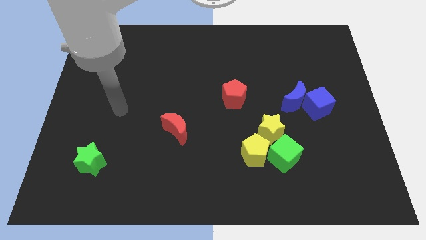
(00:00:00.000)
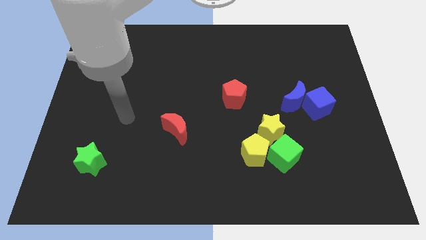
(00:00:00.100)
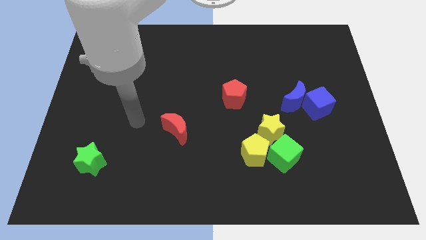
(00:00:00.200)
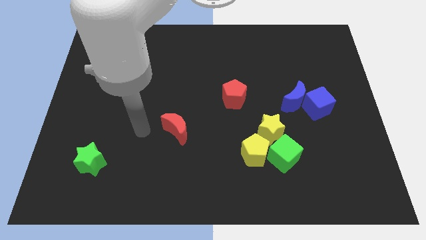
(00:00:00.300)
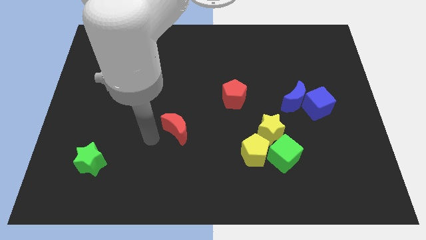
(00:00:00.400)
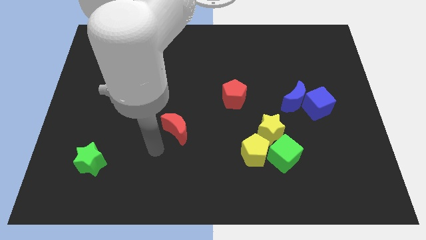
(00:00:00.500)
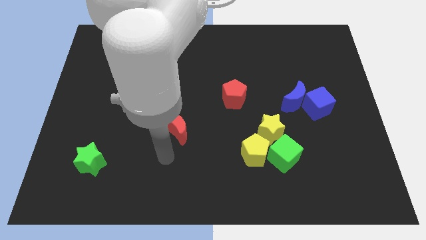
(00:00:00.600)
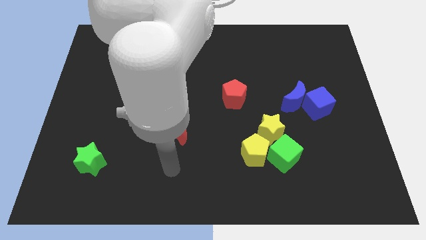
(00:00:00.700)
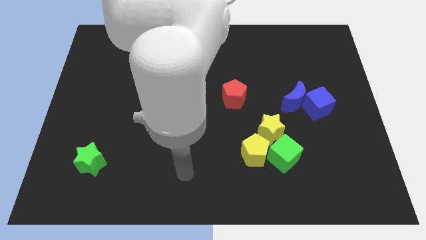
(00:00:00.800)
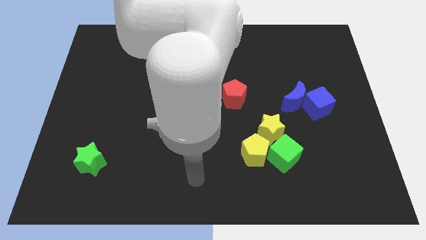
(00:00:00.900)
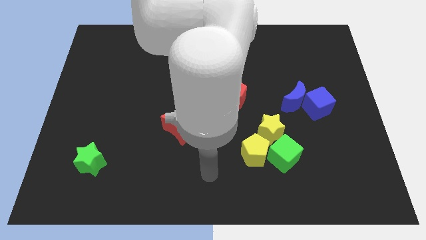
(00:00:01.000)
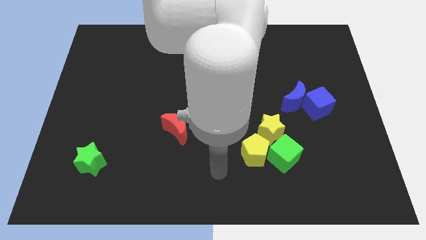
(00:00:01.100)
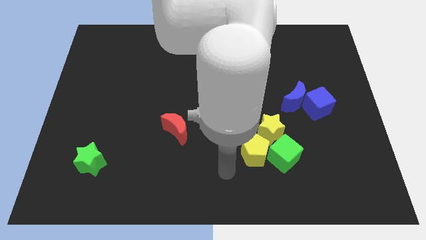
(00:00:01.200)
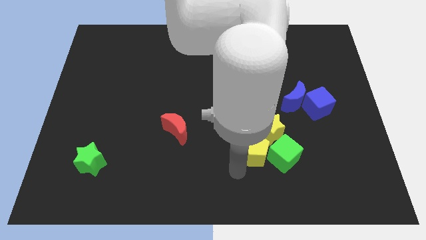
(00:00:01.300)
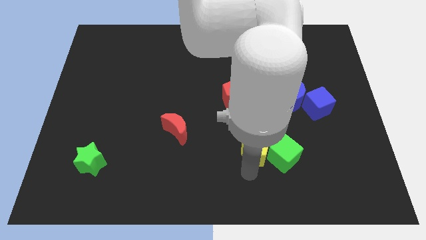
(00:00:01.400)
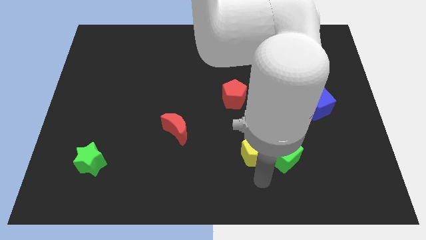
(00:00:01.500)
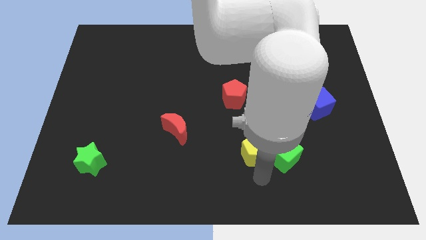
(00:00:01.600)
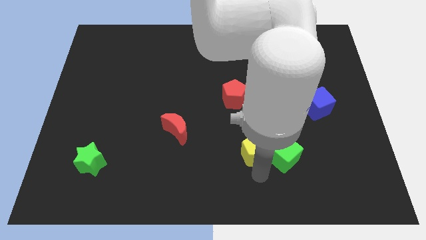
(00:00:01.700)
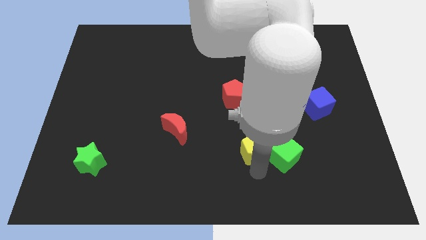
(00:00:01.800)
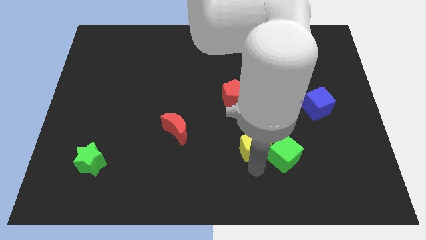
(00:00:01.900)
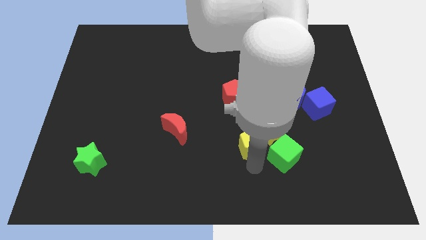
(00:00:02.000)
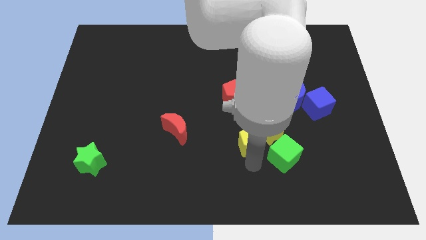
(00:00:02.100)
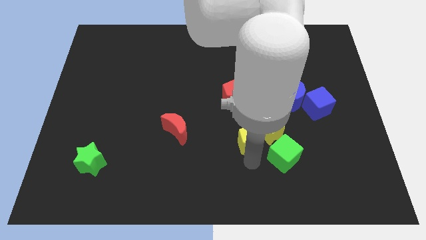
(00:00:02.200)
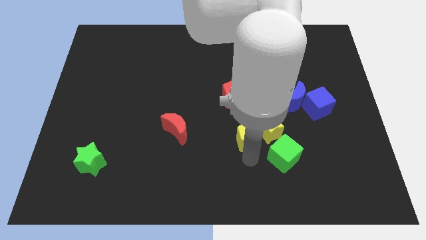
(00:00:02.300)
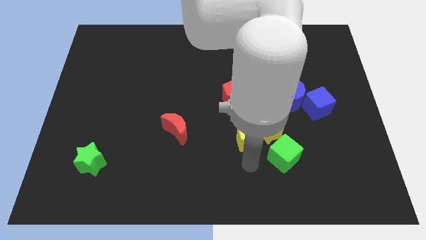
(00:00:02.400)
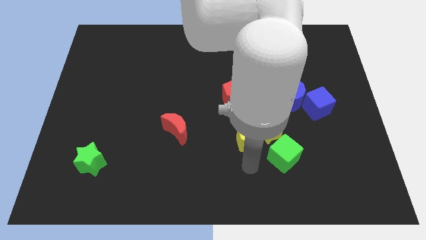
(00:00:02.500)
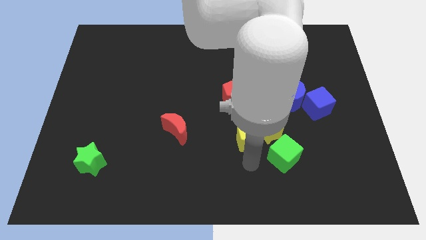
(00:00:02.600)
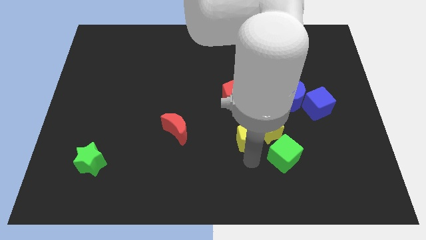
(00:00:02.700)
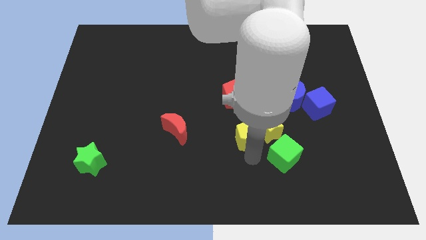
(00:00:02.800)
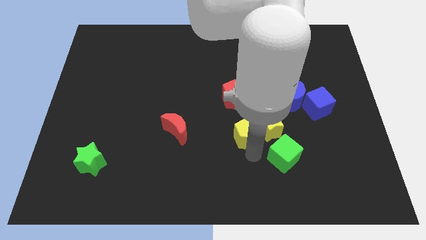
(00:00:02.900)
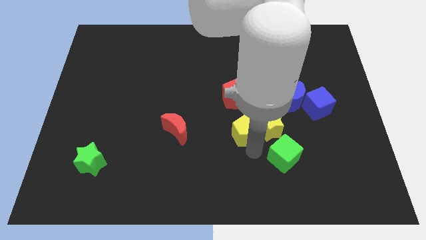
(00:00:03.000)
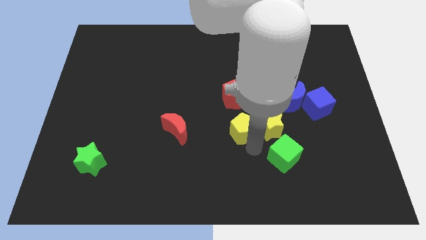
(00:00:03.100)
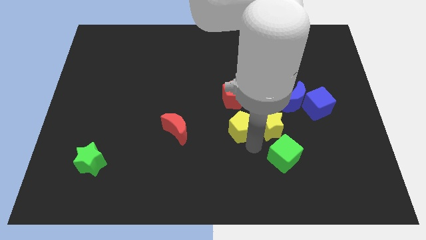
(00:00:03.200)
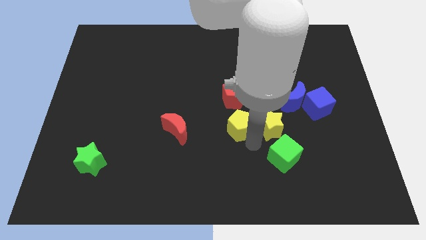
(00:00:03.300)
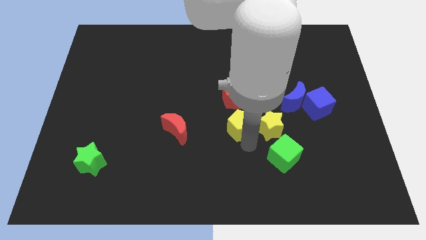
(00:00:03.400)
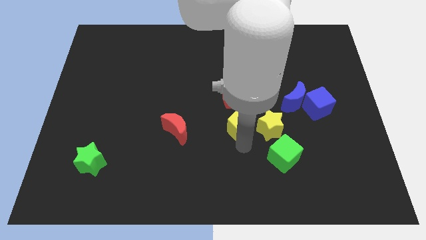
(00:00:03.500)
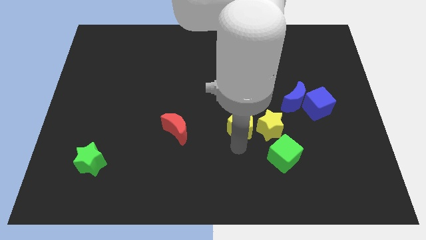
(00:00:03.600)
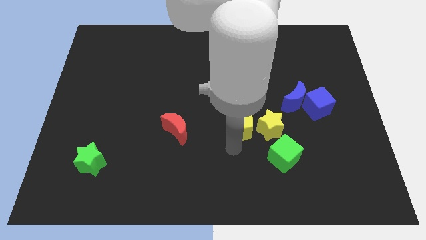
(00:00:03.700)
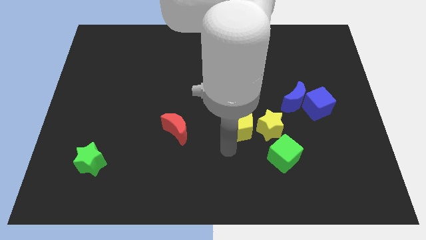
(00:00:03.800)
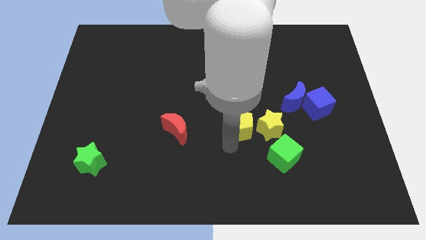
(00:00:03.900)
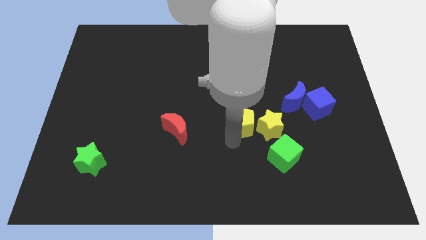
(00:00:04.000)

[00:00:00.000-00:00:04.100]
slightly slide the yellow pentagon upwards

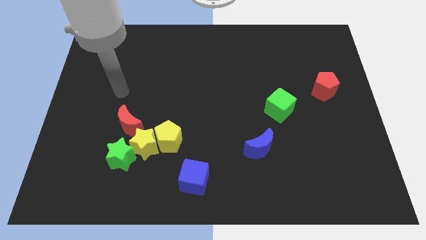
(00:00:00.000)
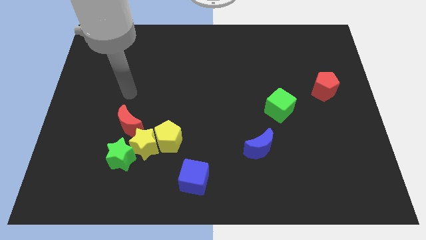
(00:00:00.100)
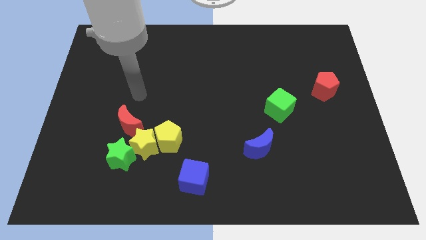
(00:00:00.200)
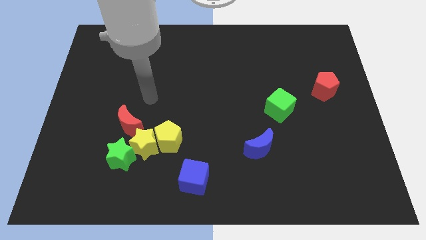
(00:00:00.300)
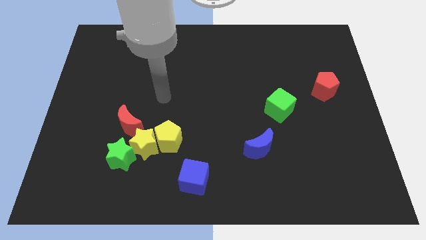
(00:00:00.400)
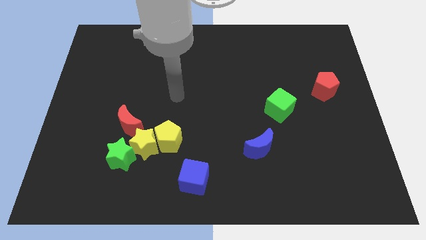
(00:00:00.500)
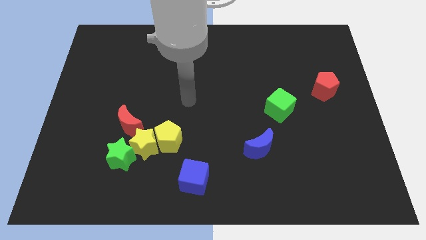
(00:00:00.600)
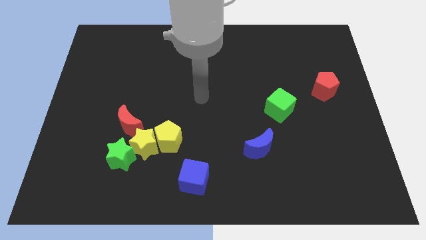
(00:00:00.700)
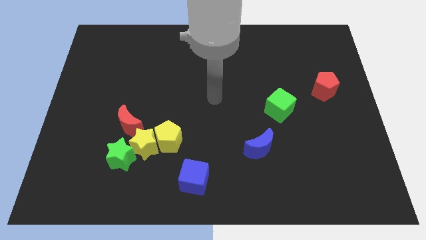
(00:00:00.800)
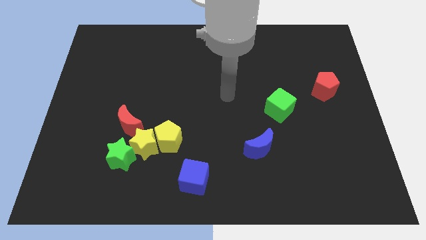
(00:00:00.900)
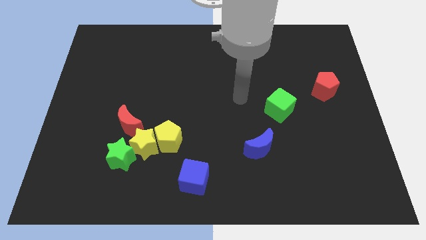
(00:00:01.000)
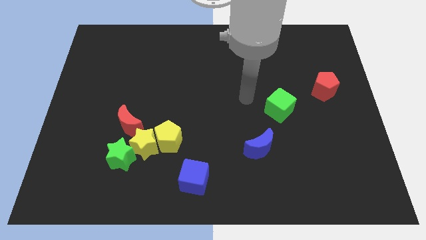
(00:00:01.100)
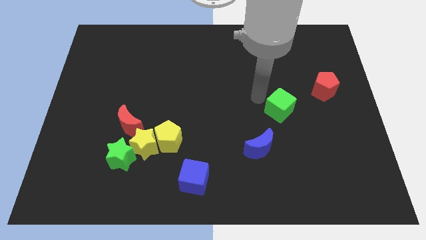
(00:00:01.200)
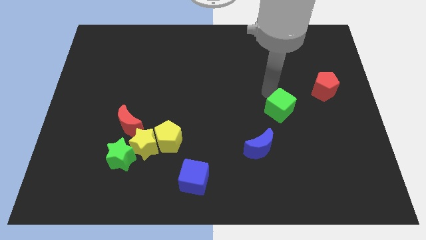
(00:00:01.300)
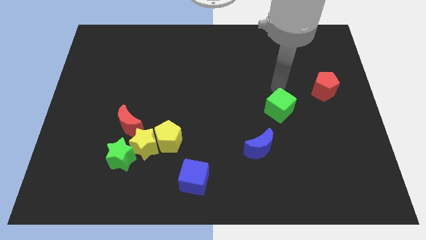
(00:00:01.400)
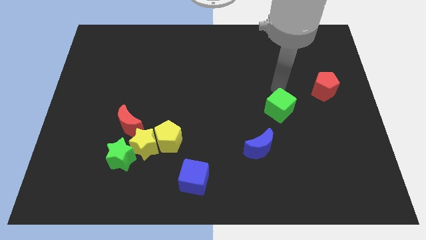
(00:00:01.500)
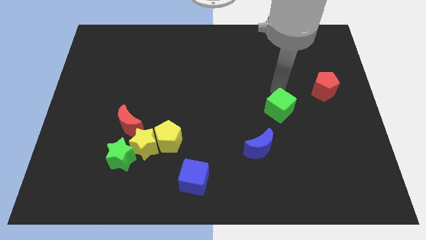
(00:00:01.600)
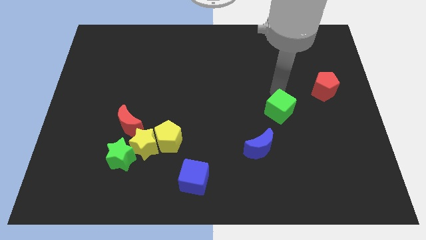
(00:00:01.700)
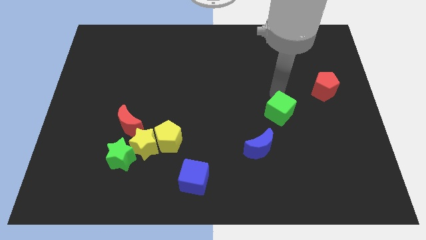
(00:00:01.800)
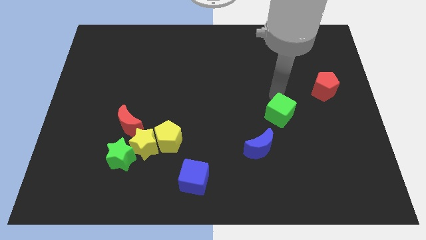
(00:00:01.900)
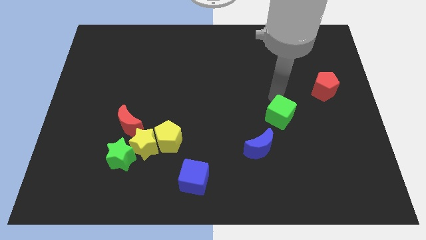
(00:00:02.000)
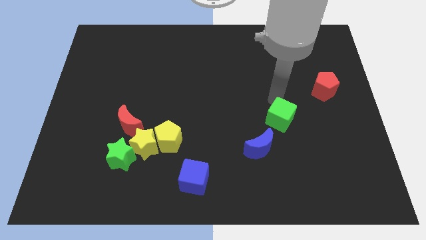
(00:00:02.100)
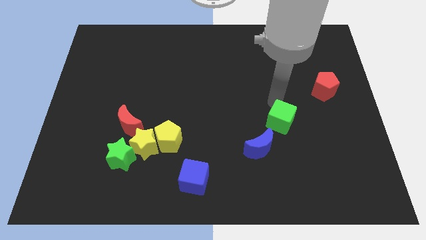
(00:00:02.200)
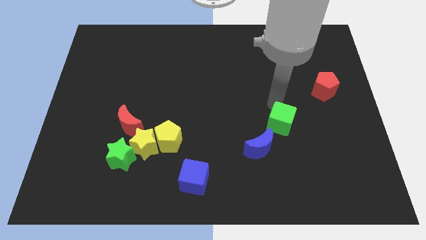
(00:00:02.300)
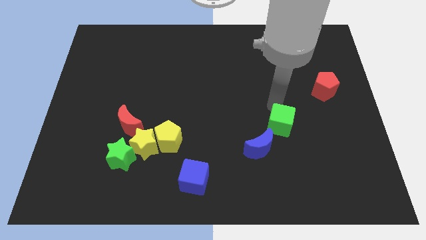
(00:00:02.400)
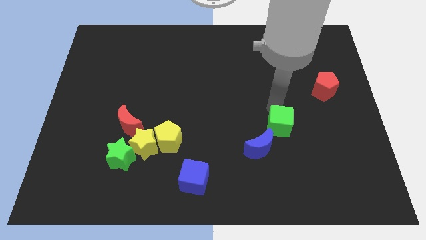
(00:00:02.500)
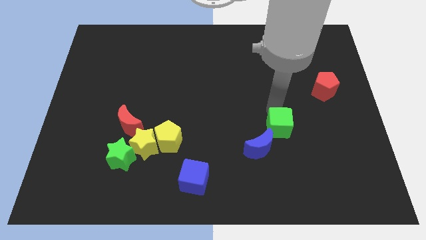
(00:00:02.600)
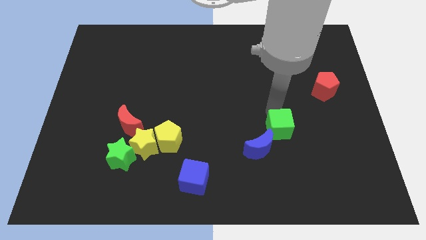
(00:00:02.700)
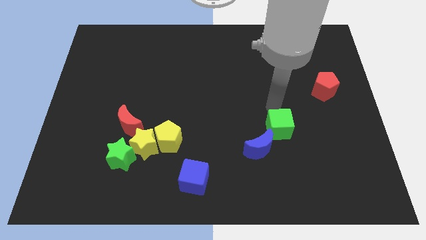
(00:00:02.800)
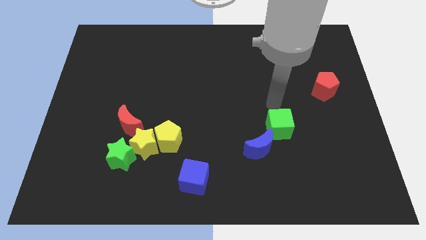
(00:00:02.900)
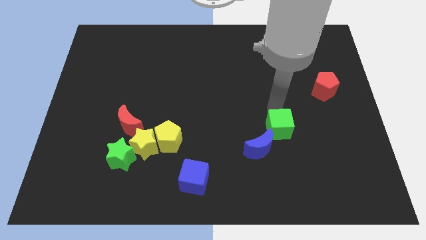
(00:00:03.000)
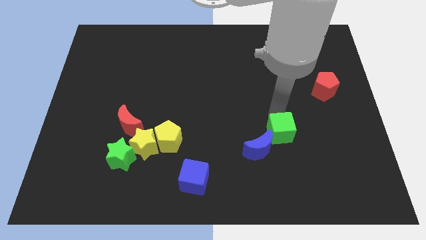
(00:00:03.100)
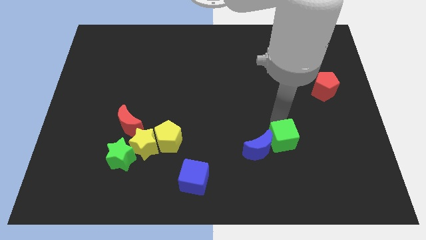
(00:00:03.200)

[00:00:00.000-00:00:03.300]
slightly slide the green cube down

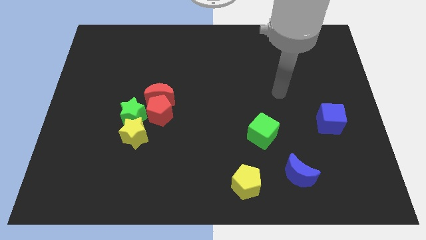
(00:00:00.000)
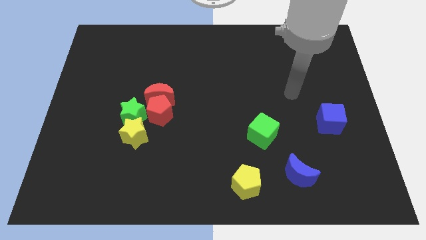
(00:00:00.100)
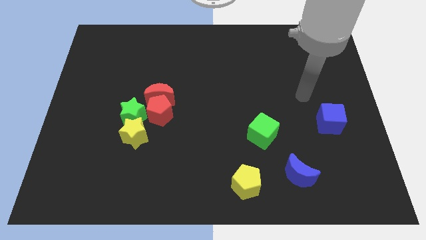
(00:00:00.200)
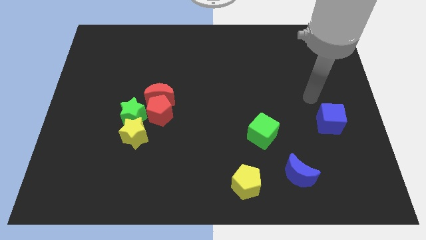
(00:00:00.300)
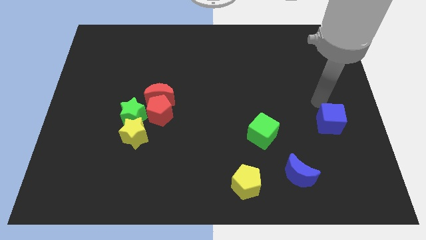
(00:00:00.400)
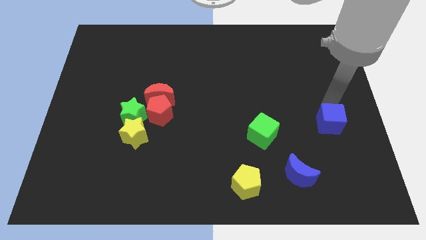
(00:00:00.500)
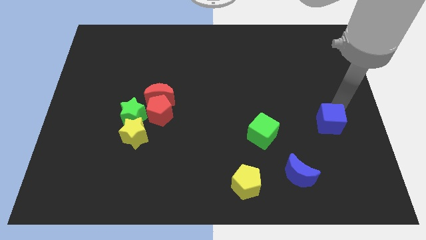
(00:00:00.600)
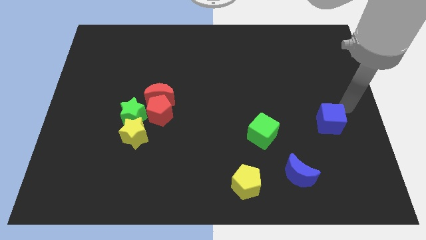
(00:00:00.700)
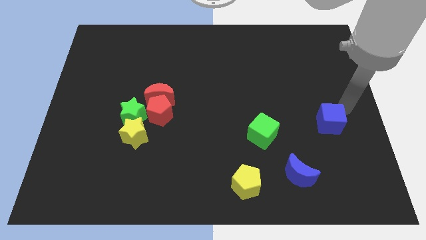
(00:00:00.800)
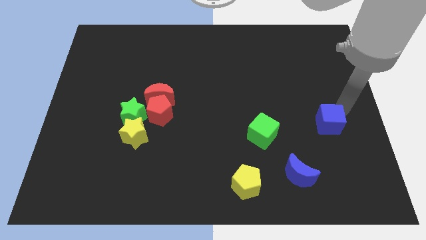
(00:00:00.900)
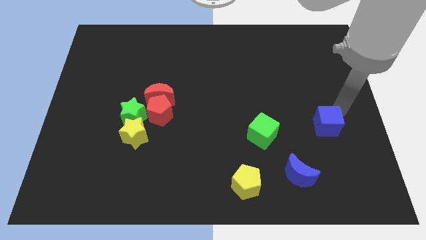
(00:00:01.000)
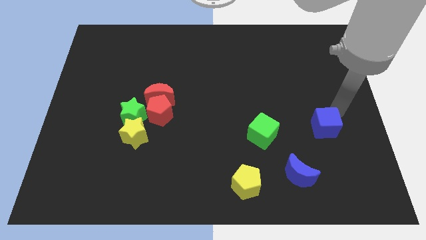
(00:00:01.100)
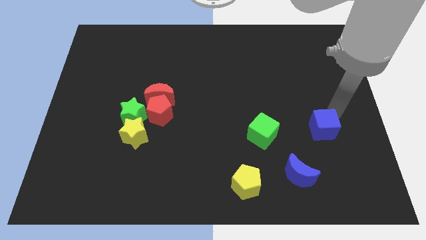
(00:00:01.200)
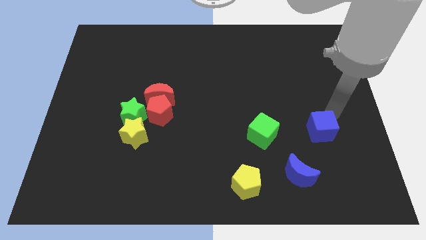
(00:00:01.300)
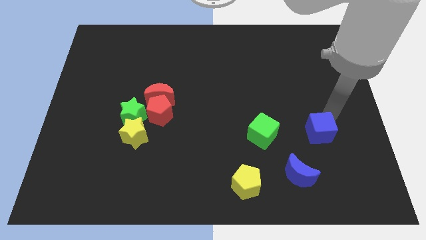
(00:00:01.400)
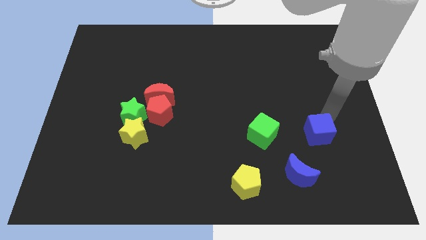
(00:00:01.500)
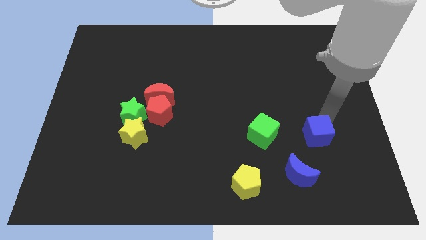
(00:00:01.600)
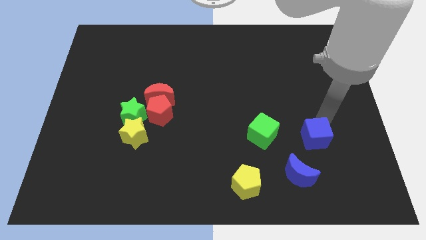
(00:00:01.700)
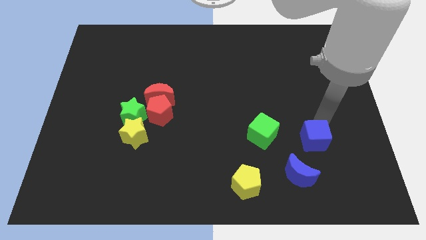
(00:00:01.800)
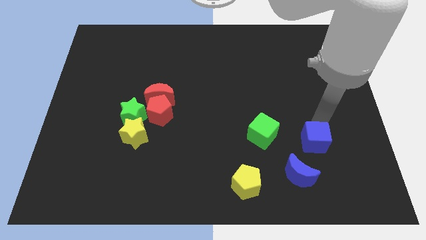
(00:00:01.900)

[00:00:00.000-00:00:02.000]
push the blue cube down and then to the left a little bit
